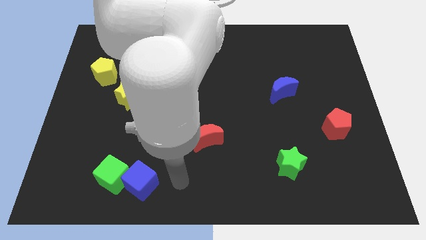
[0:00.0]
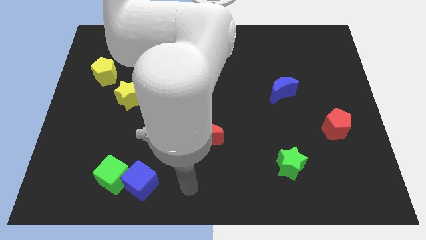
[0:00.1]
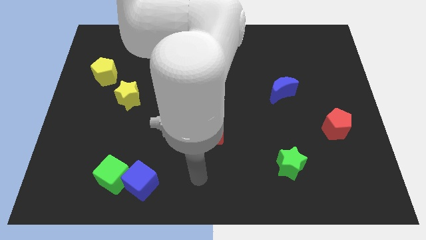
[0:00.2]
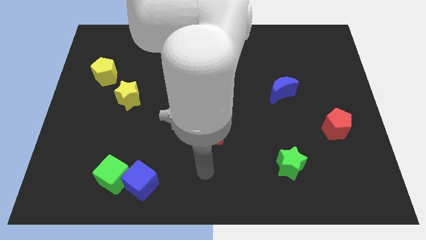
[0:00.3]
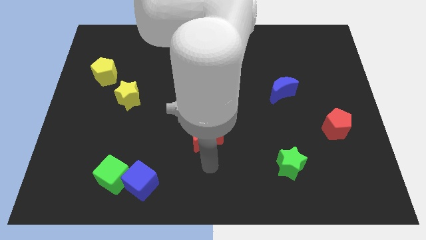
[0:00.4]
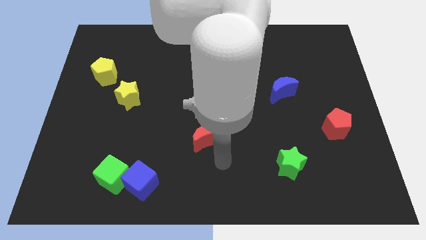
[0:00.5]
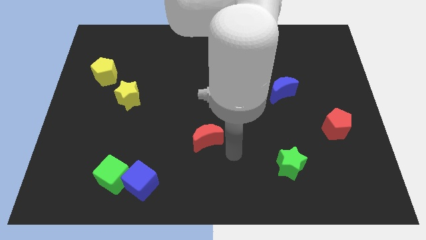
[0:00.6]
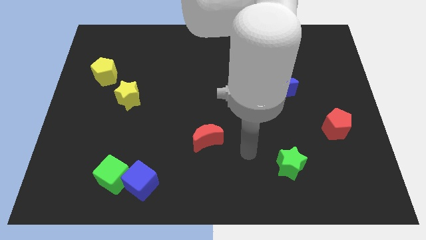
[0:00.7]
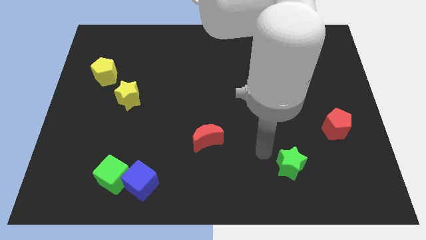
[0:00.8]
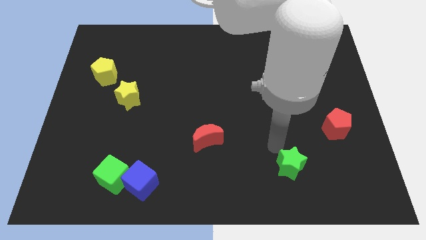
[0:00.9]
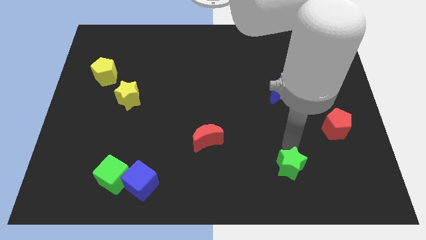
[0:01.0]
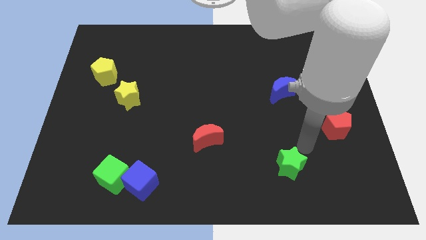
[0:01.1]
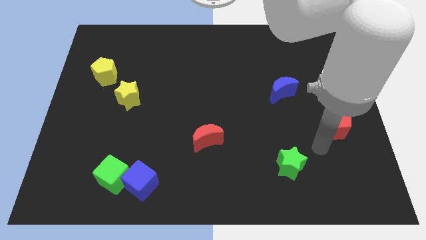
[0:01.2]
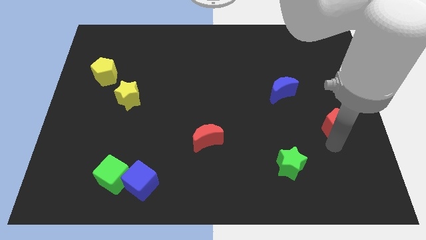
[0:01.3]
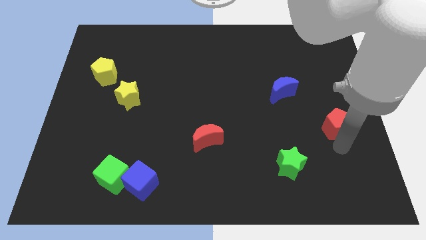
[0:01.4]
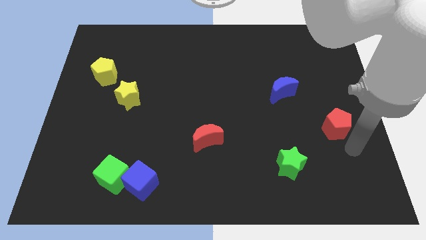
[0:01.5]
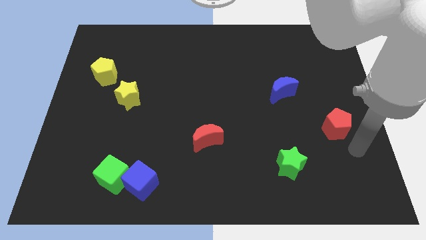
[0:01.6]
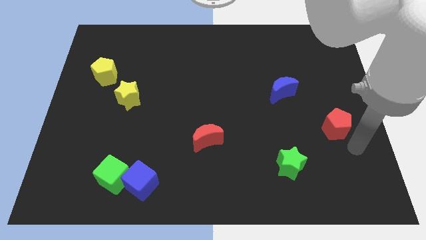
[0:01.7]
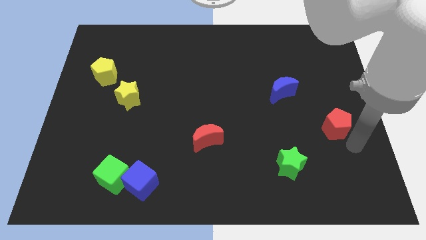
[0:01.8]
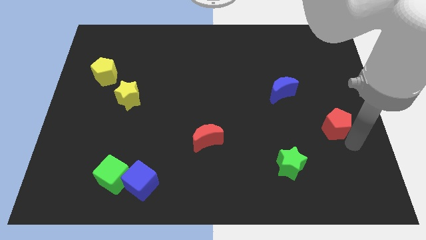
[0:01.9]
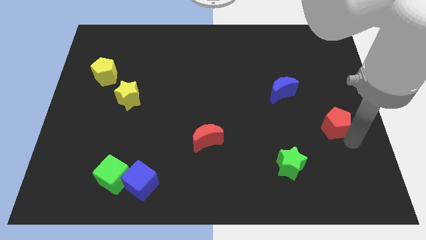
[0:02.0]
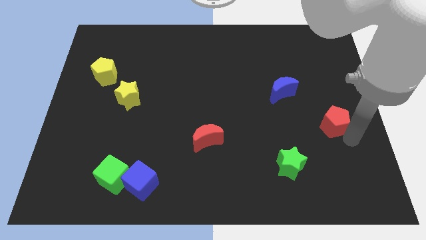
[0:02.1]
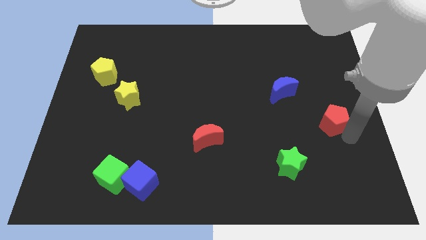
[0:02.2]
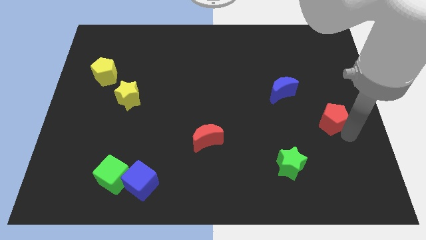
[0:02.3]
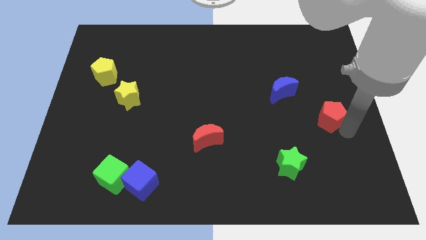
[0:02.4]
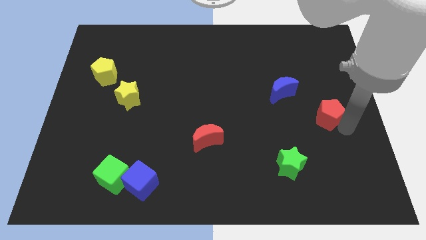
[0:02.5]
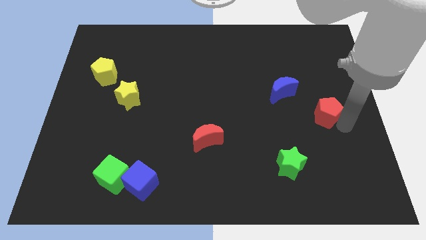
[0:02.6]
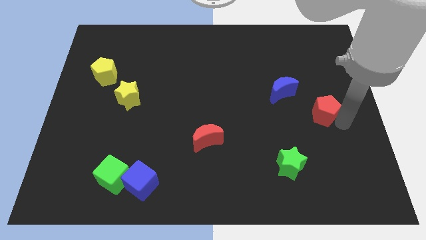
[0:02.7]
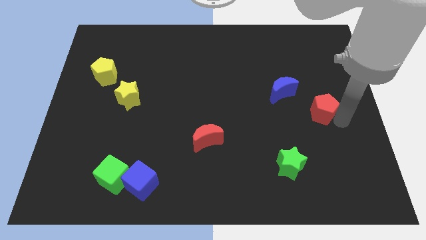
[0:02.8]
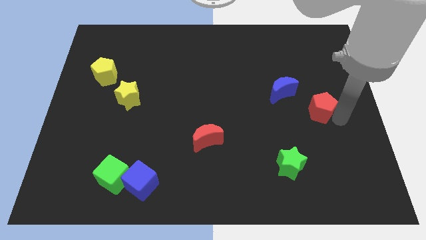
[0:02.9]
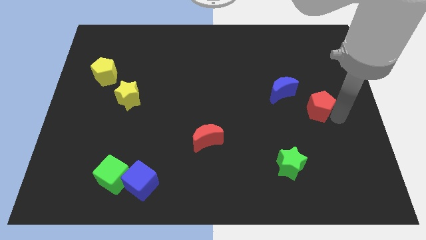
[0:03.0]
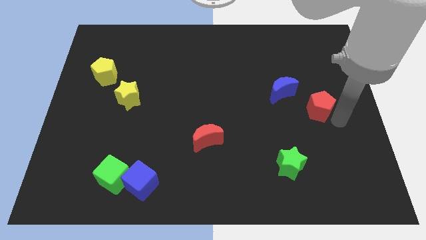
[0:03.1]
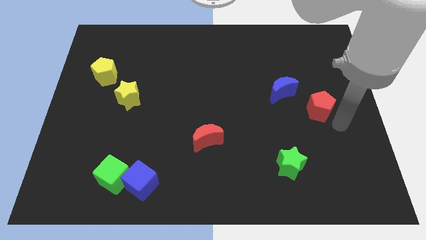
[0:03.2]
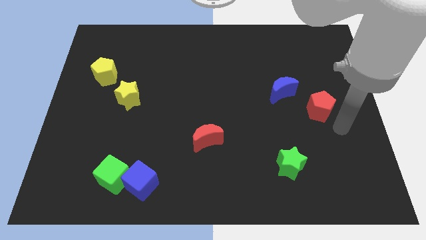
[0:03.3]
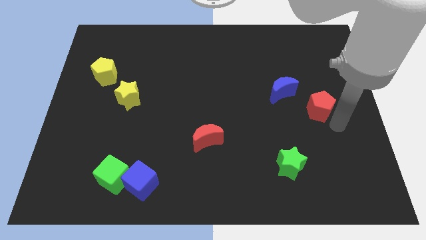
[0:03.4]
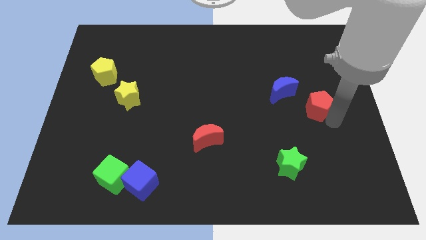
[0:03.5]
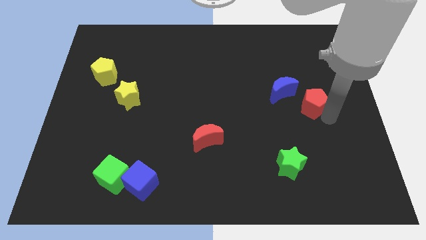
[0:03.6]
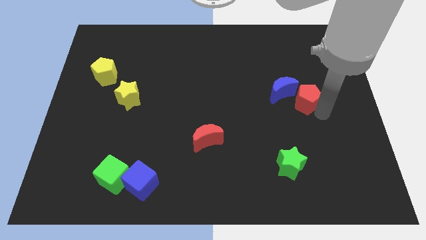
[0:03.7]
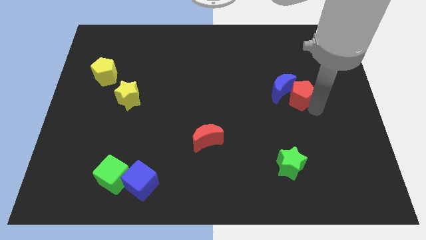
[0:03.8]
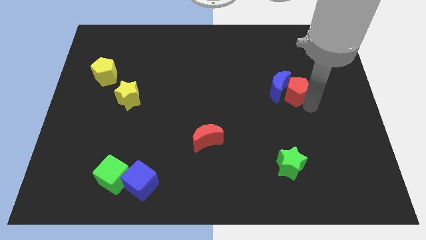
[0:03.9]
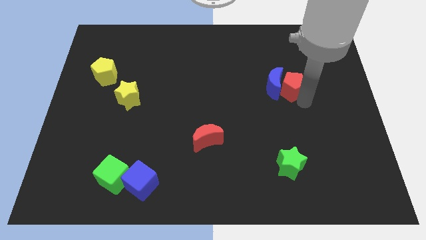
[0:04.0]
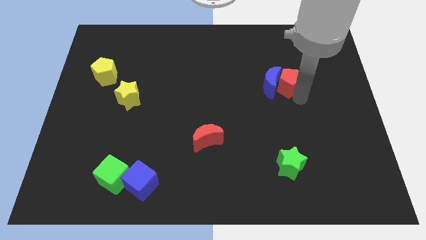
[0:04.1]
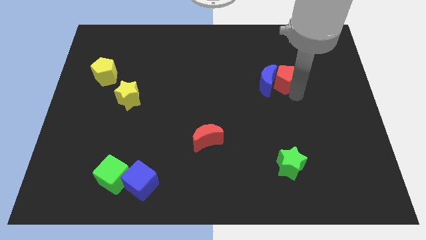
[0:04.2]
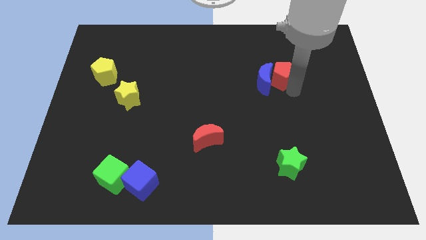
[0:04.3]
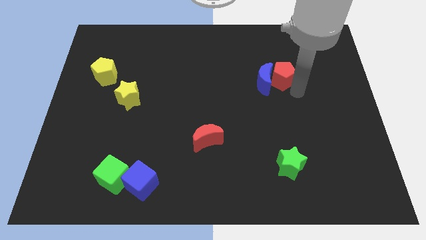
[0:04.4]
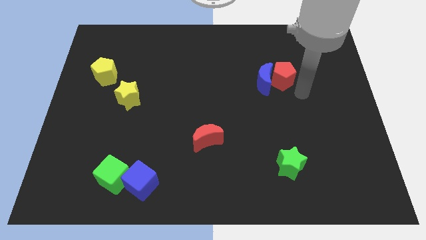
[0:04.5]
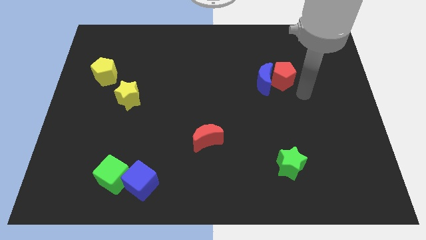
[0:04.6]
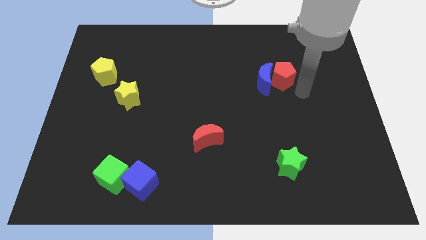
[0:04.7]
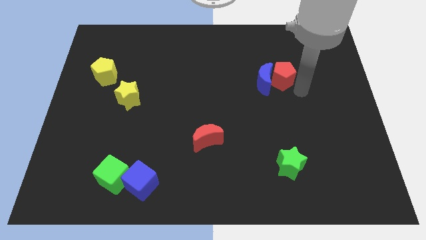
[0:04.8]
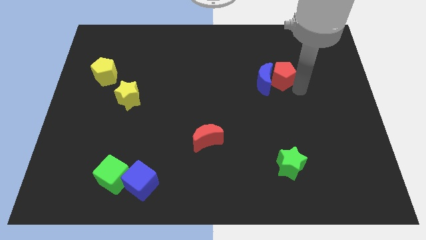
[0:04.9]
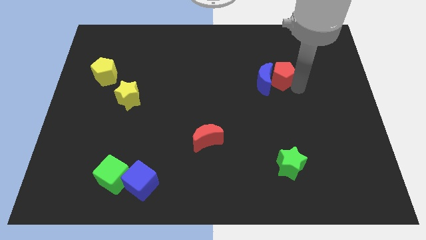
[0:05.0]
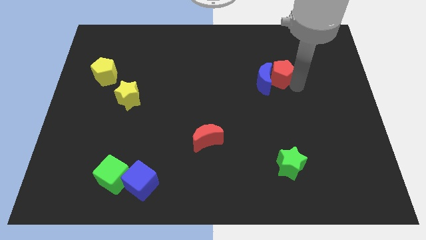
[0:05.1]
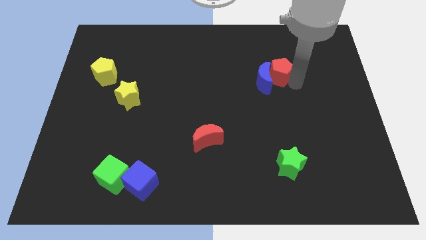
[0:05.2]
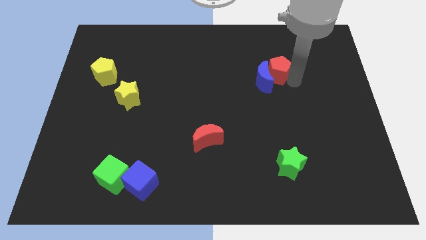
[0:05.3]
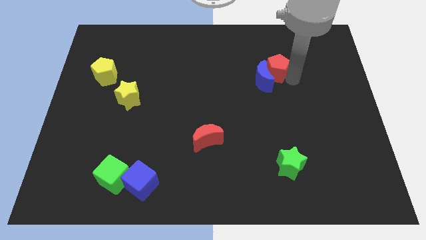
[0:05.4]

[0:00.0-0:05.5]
push the red pentagon upwards and to the left diagonally

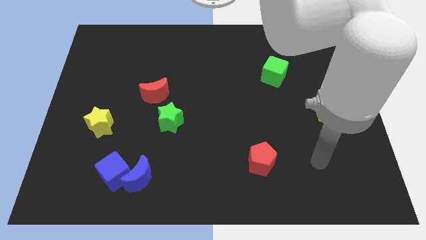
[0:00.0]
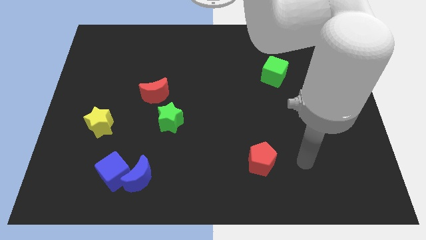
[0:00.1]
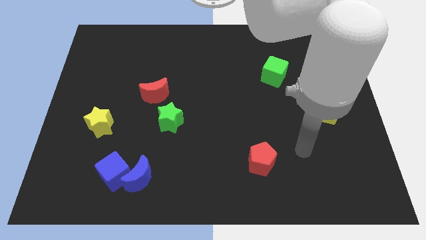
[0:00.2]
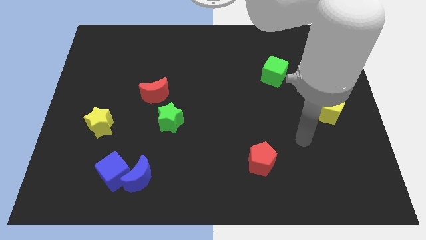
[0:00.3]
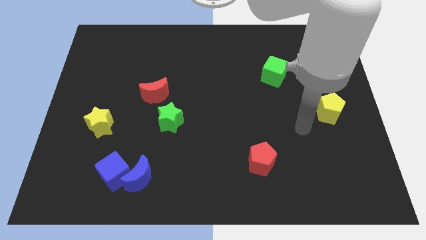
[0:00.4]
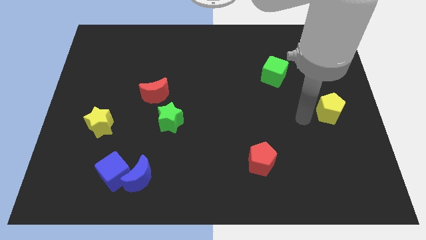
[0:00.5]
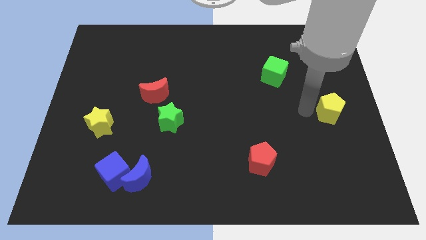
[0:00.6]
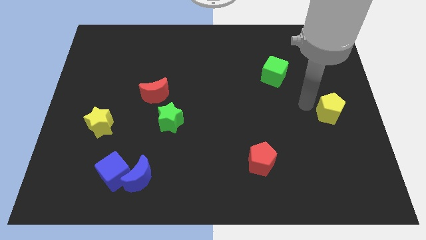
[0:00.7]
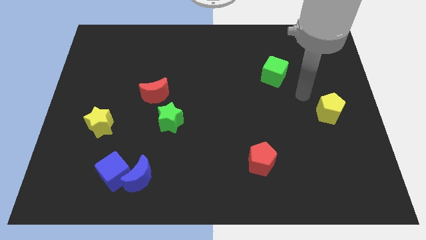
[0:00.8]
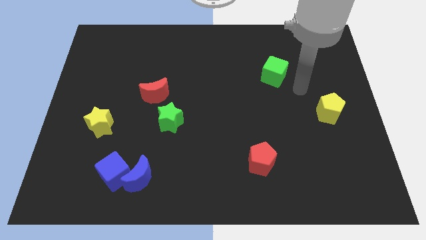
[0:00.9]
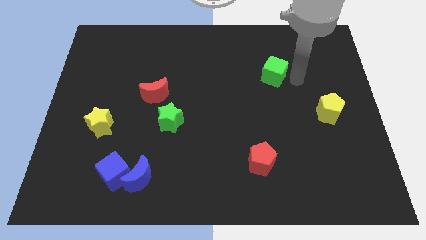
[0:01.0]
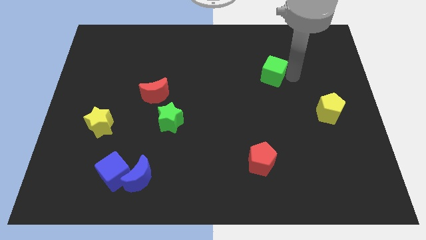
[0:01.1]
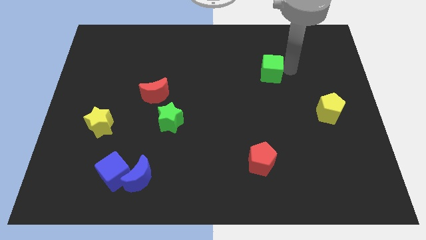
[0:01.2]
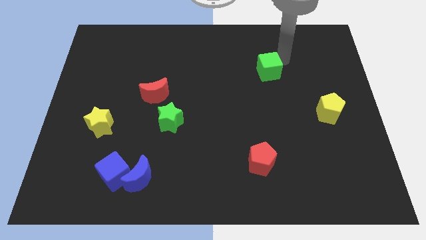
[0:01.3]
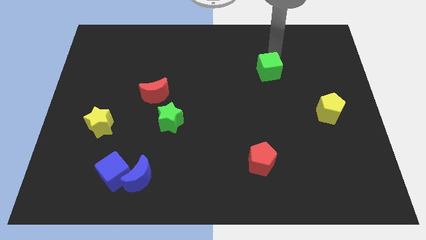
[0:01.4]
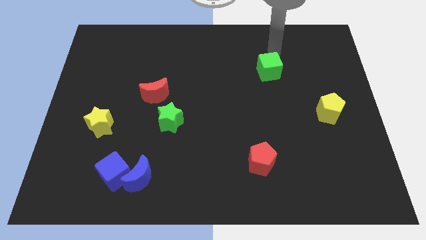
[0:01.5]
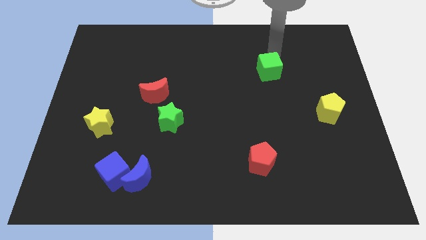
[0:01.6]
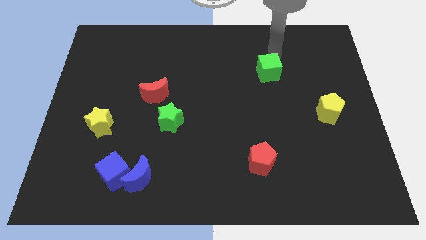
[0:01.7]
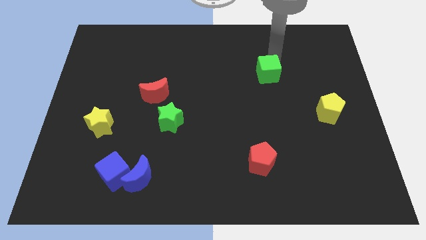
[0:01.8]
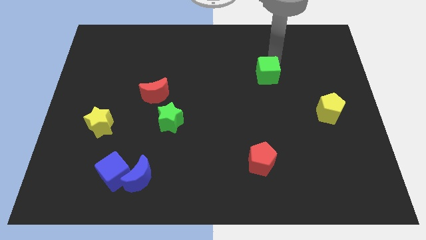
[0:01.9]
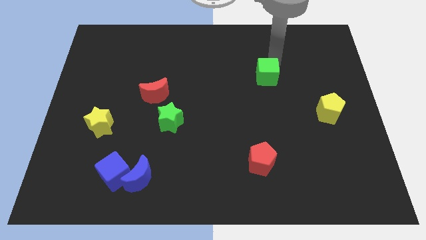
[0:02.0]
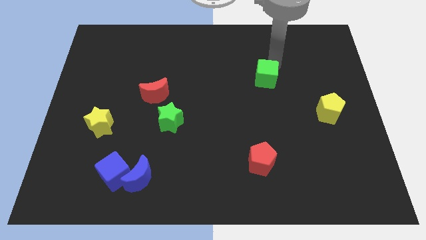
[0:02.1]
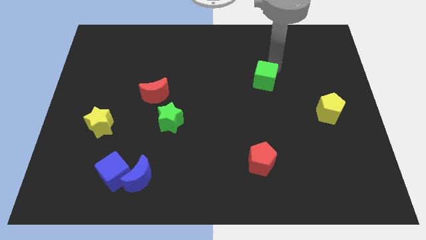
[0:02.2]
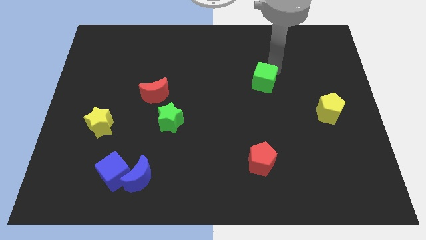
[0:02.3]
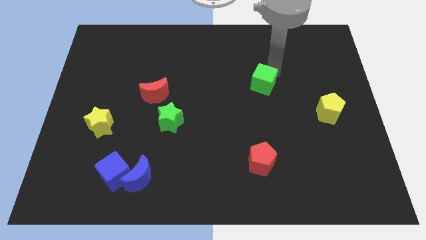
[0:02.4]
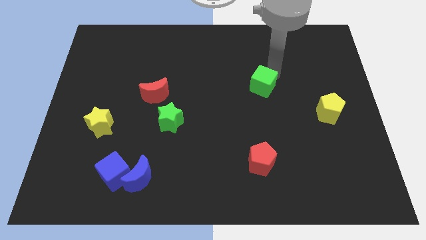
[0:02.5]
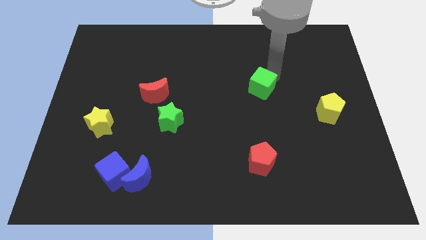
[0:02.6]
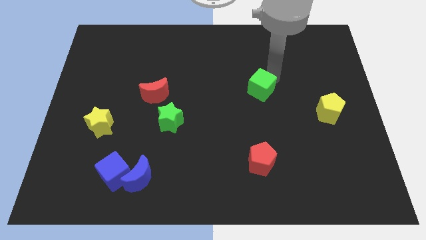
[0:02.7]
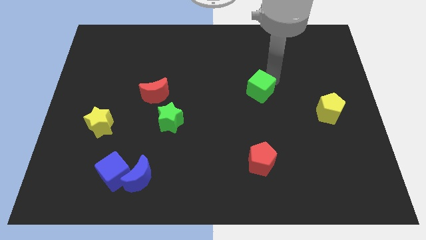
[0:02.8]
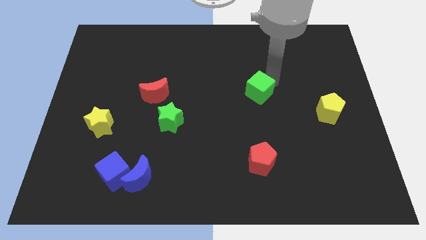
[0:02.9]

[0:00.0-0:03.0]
slide the green cube a bit downwards and left diagonally
